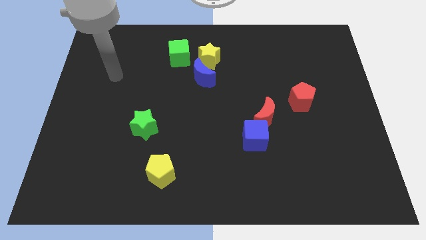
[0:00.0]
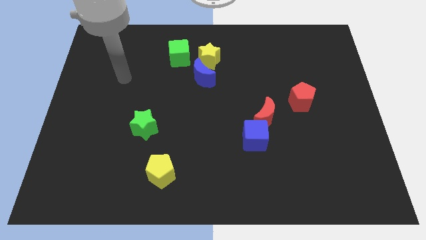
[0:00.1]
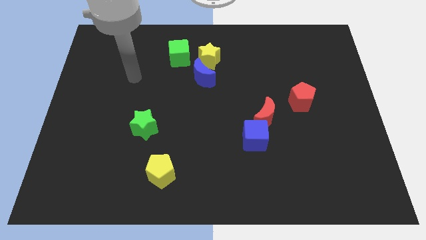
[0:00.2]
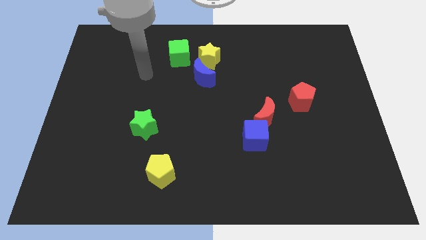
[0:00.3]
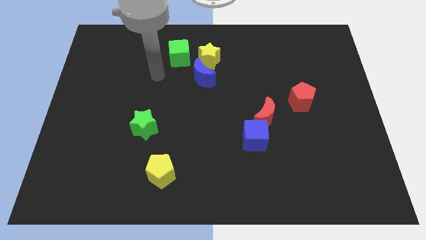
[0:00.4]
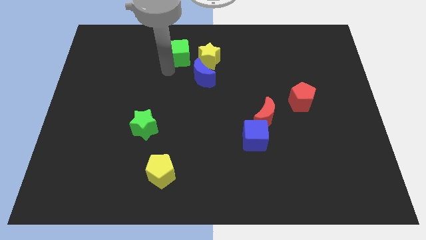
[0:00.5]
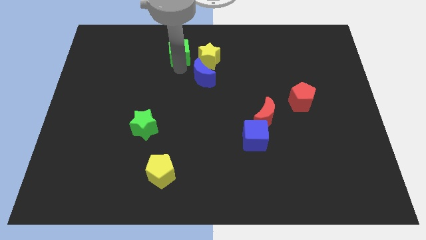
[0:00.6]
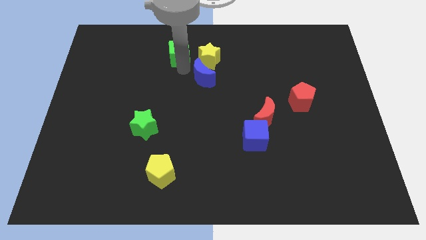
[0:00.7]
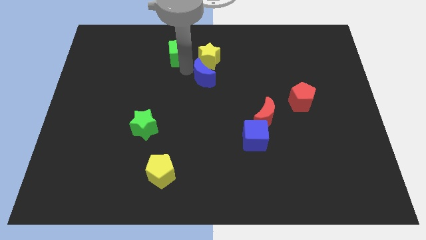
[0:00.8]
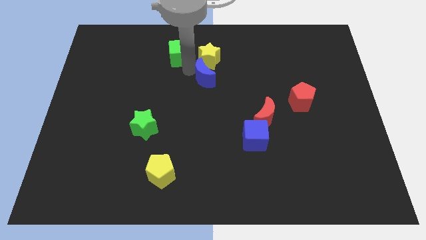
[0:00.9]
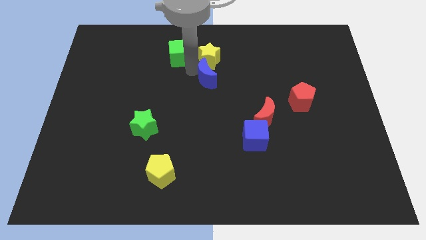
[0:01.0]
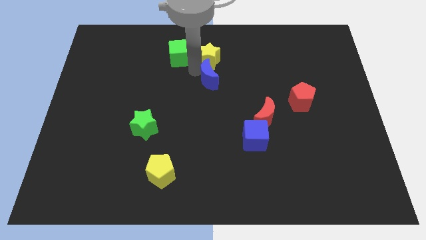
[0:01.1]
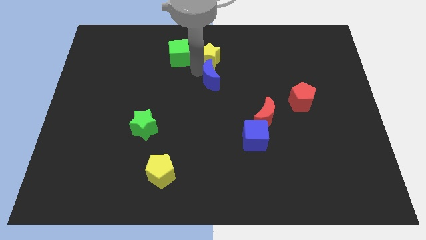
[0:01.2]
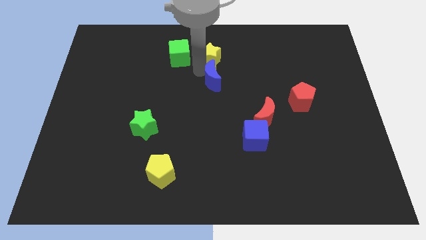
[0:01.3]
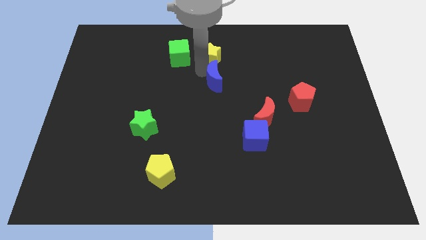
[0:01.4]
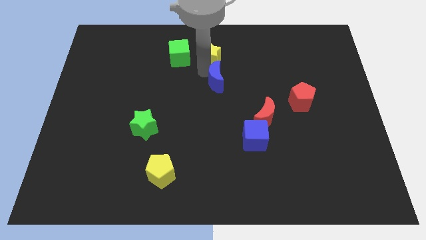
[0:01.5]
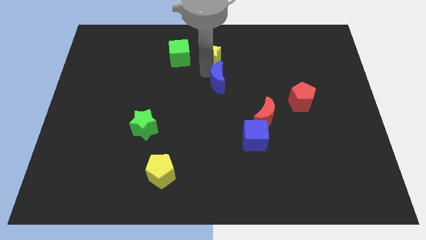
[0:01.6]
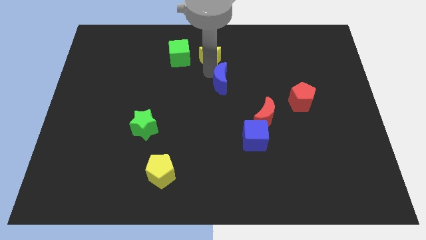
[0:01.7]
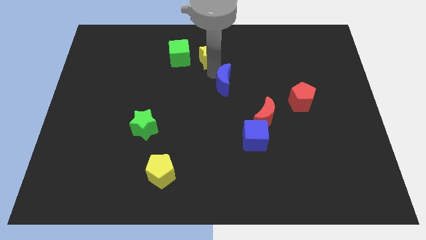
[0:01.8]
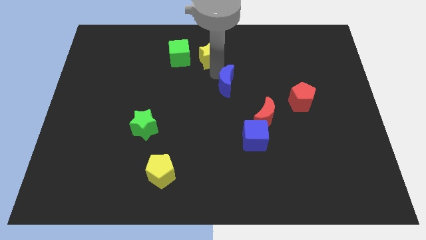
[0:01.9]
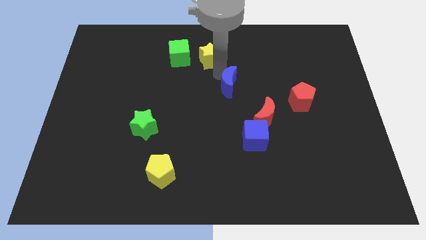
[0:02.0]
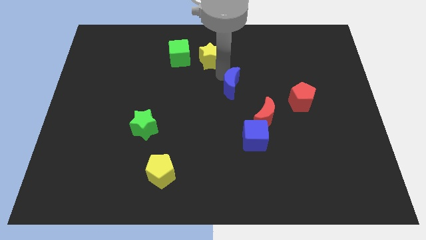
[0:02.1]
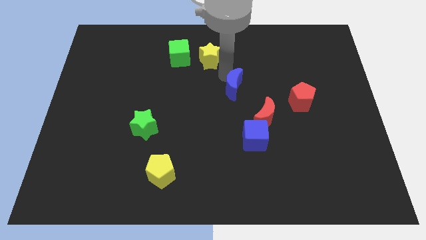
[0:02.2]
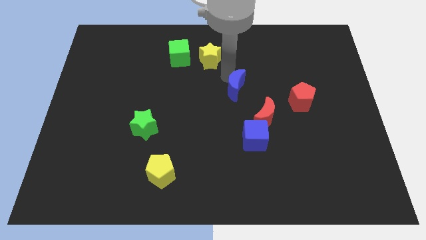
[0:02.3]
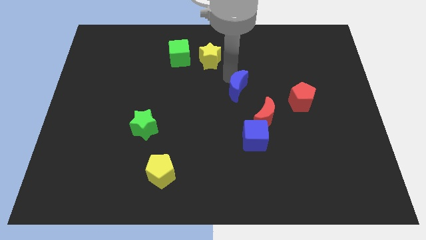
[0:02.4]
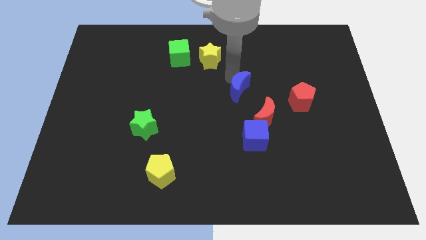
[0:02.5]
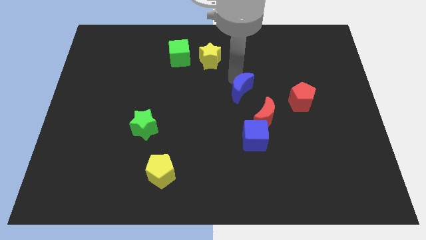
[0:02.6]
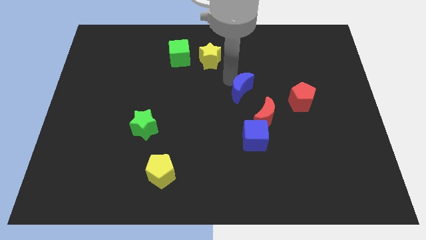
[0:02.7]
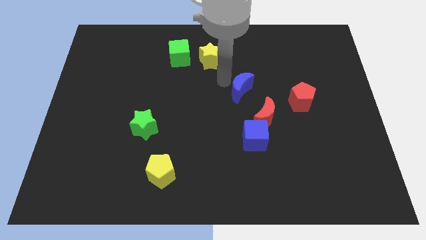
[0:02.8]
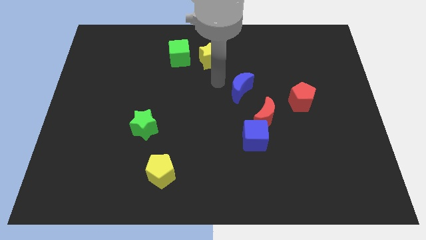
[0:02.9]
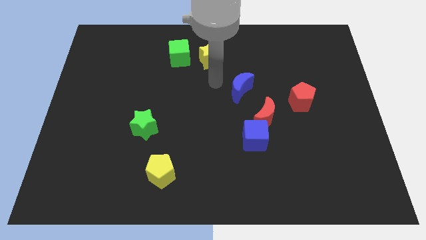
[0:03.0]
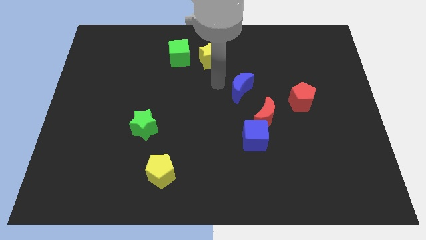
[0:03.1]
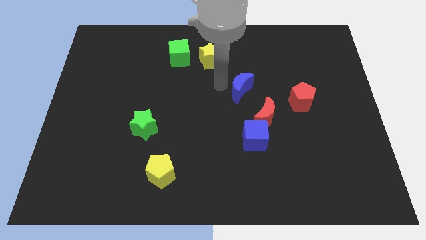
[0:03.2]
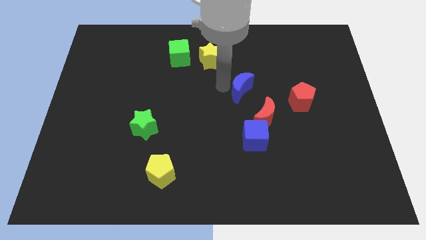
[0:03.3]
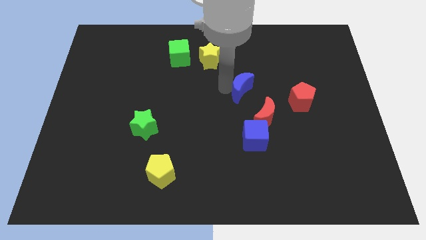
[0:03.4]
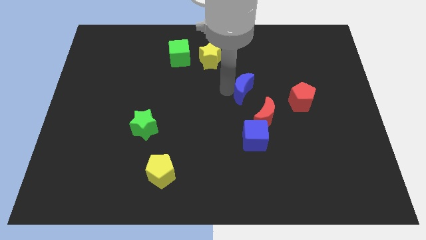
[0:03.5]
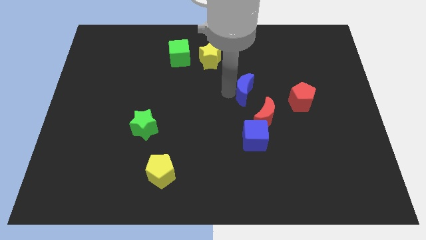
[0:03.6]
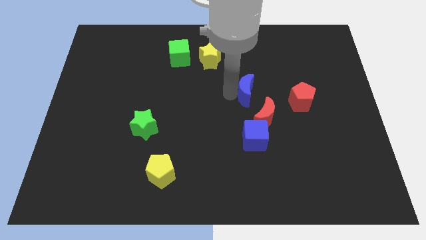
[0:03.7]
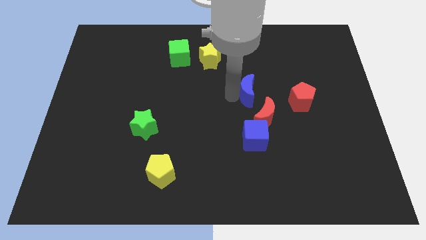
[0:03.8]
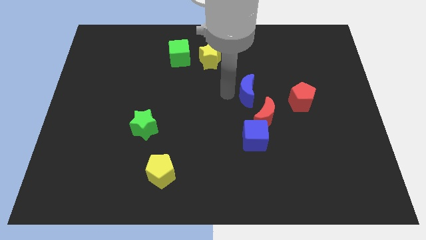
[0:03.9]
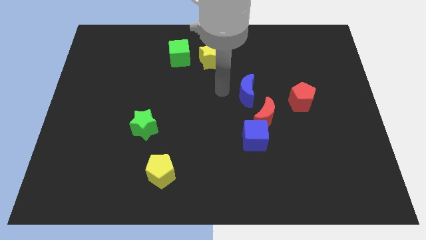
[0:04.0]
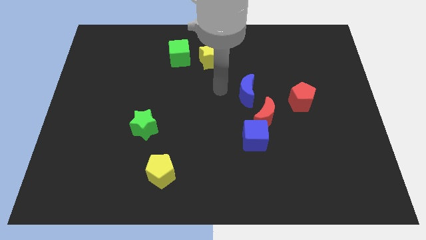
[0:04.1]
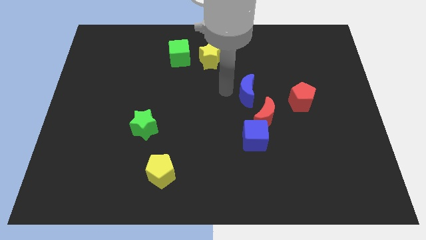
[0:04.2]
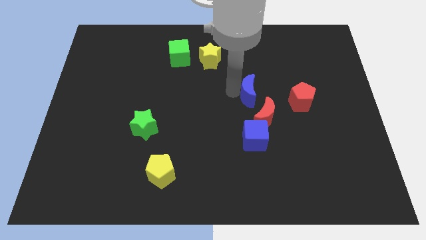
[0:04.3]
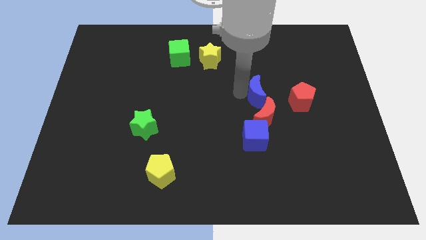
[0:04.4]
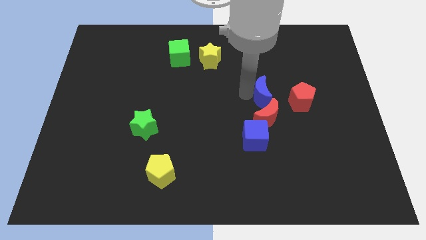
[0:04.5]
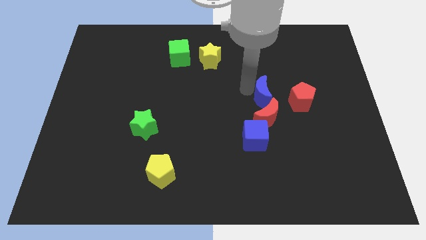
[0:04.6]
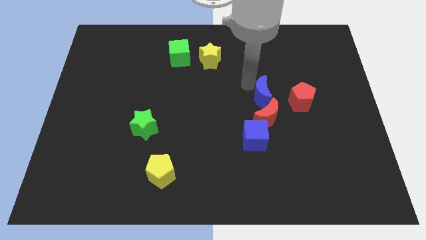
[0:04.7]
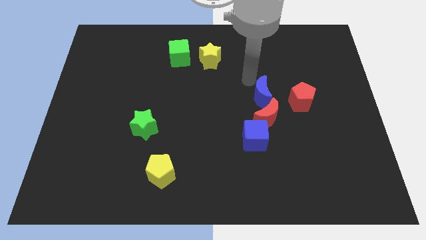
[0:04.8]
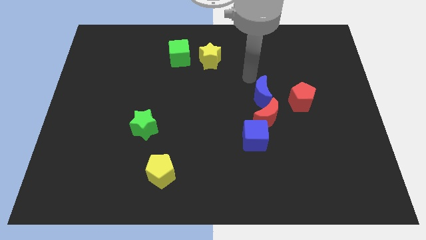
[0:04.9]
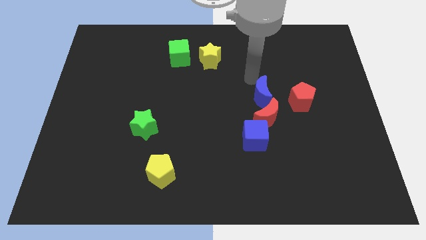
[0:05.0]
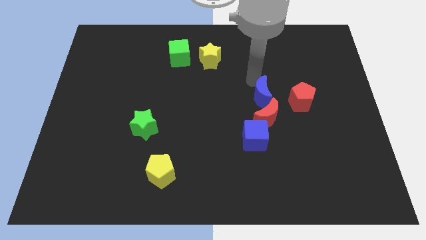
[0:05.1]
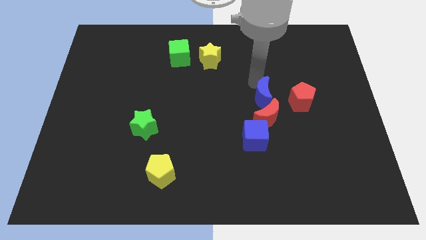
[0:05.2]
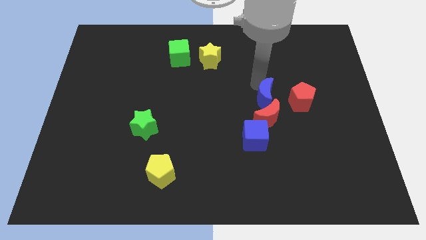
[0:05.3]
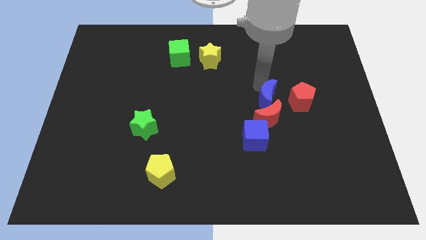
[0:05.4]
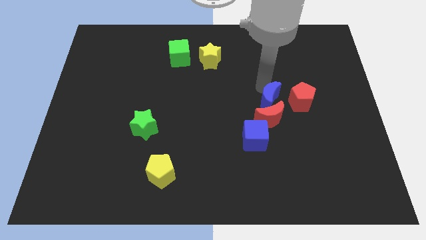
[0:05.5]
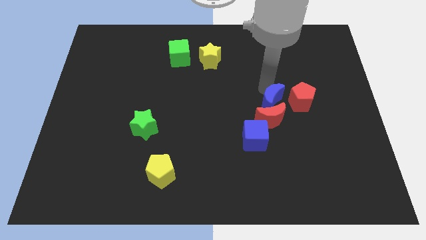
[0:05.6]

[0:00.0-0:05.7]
move the blue moon diagonally up and to the right of the blue cube

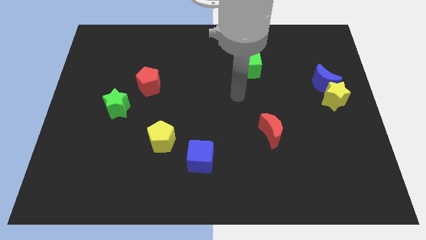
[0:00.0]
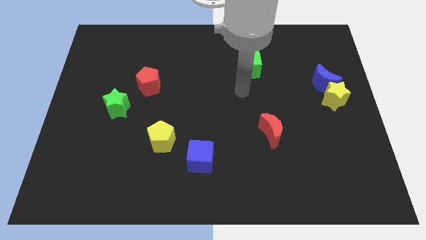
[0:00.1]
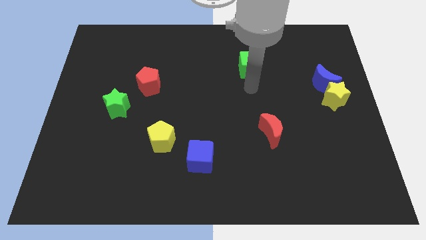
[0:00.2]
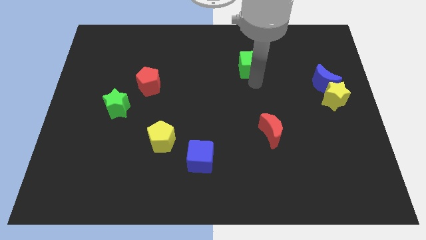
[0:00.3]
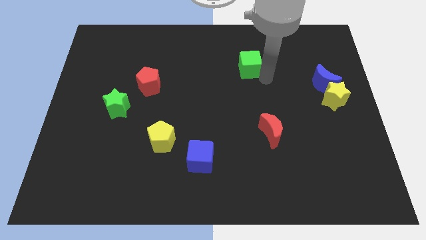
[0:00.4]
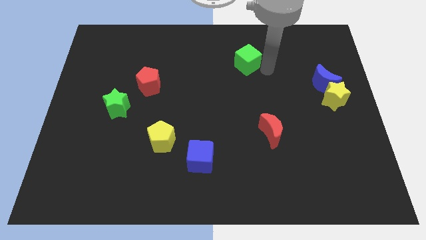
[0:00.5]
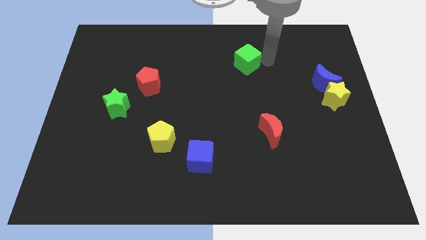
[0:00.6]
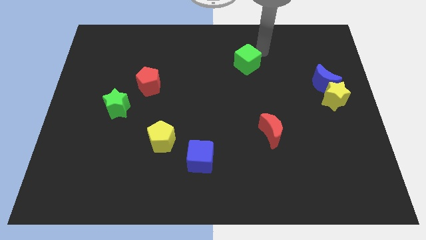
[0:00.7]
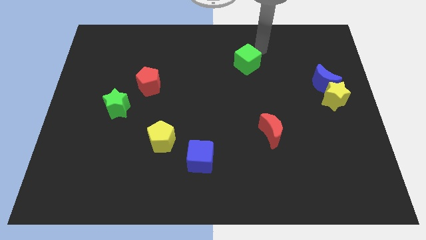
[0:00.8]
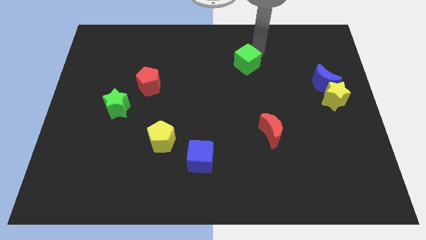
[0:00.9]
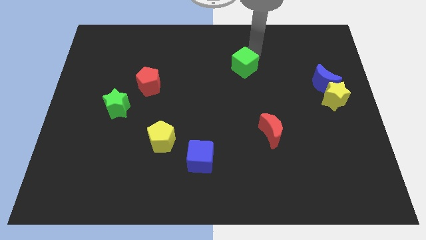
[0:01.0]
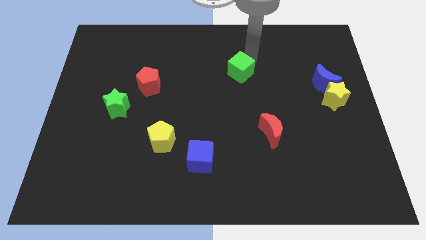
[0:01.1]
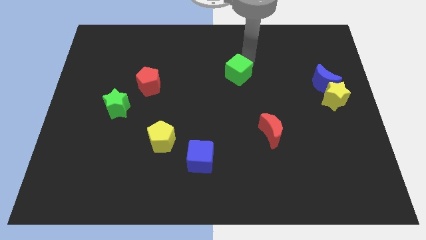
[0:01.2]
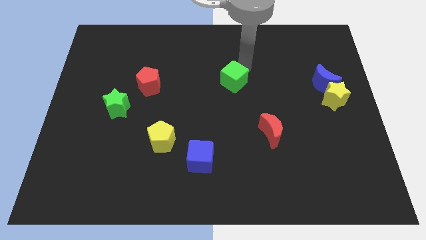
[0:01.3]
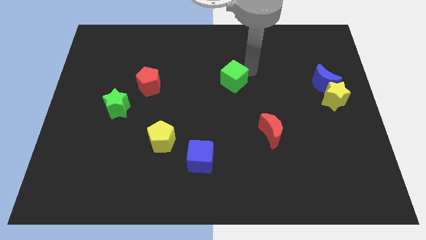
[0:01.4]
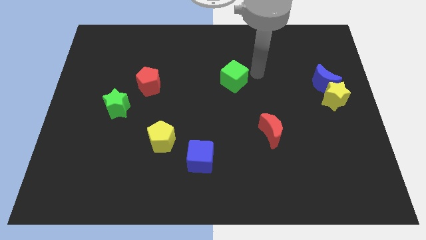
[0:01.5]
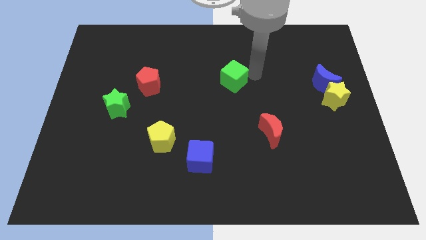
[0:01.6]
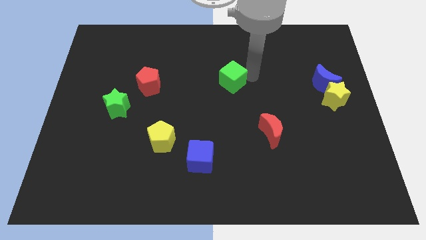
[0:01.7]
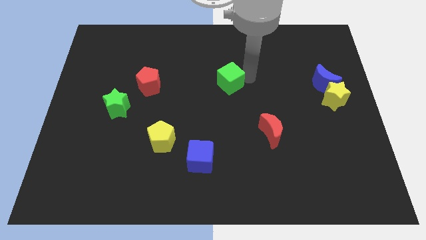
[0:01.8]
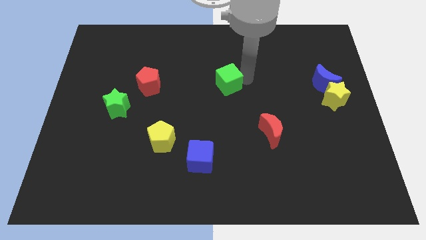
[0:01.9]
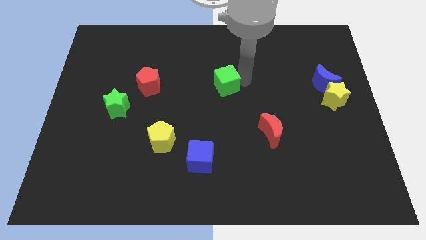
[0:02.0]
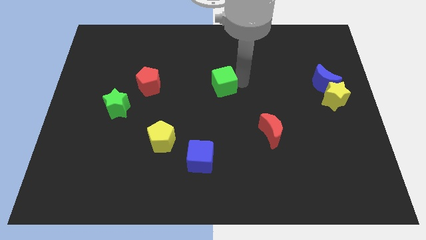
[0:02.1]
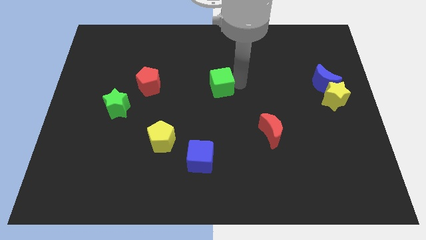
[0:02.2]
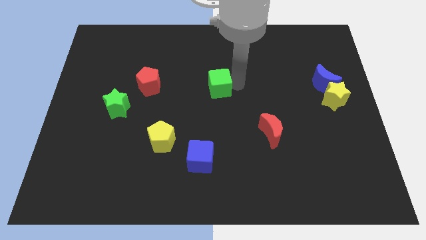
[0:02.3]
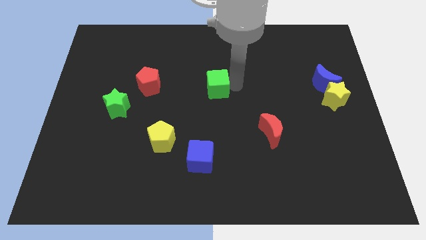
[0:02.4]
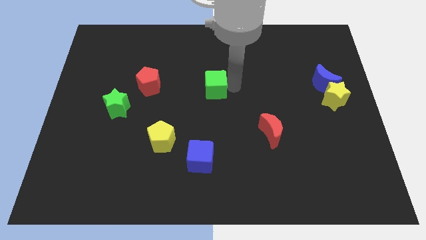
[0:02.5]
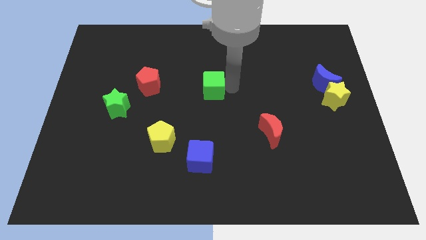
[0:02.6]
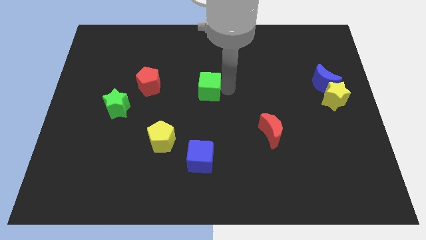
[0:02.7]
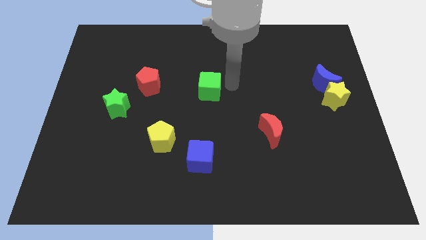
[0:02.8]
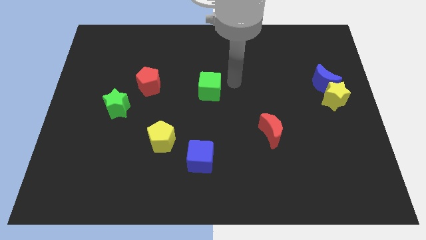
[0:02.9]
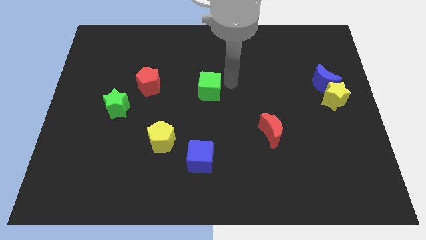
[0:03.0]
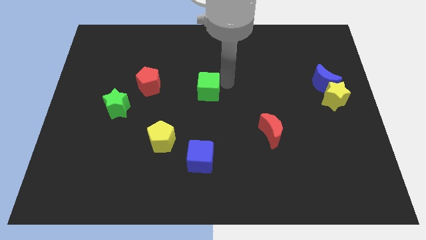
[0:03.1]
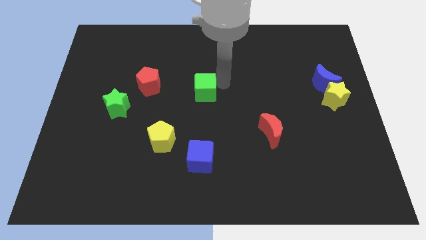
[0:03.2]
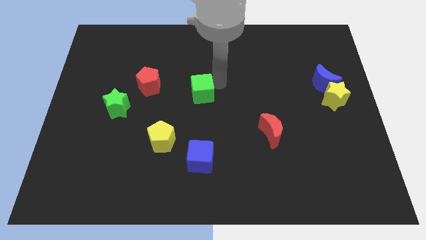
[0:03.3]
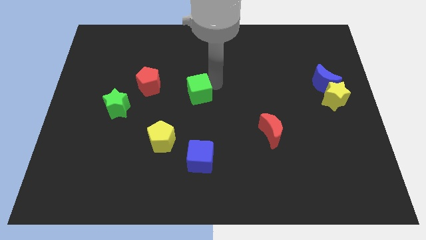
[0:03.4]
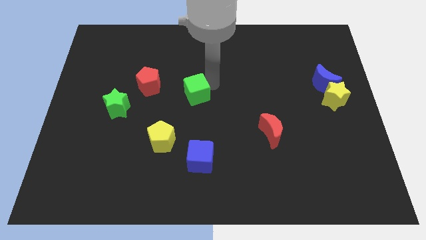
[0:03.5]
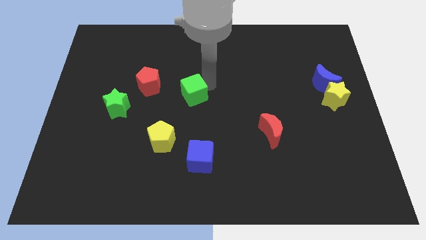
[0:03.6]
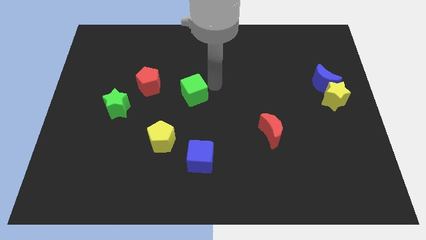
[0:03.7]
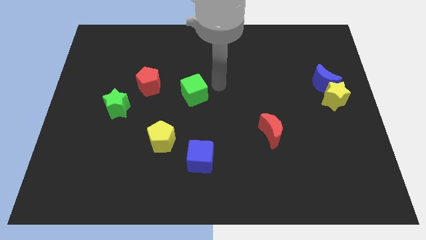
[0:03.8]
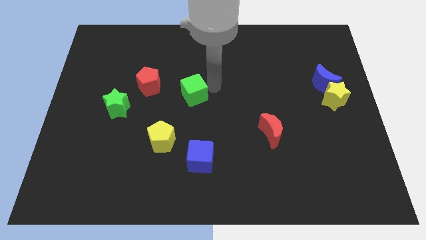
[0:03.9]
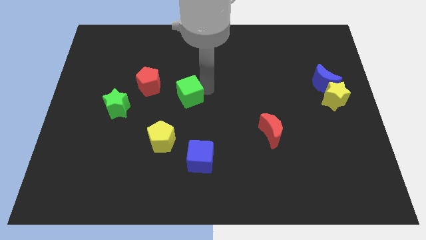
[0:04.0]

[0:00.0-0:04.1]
move the green cube to the bottom right of the red pentagon
